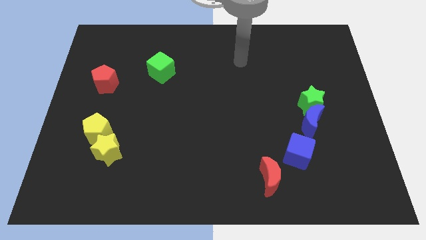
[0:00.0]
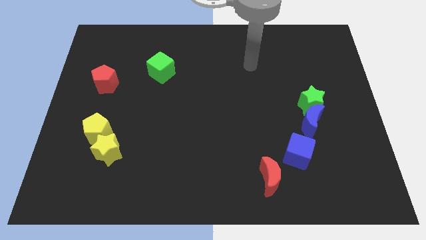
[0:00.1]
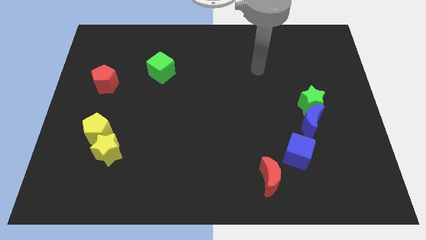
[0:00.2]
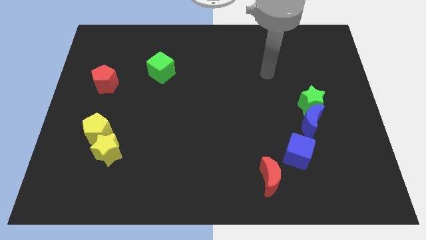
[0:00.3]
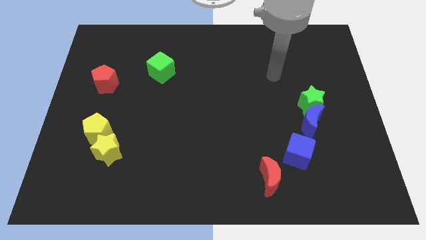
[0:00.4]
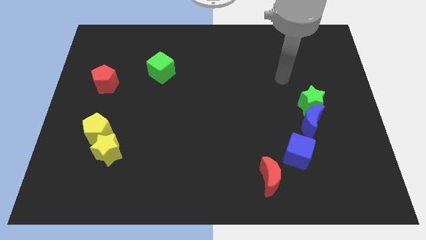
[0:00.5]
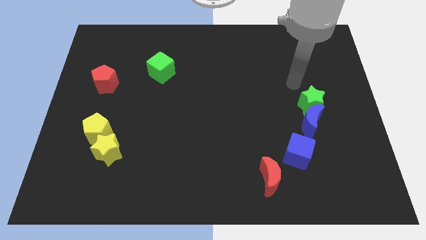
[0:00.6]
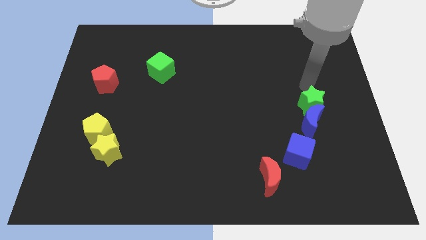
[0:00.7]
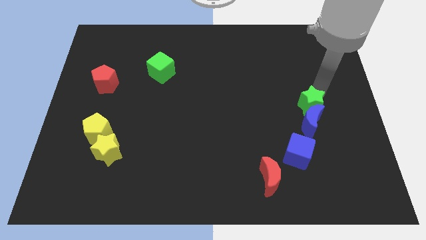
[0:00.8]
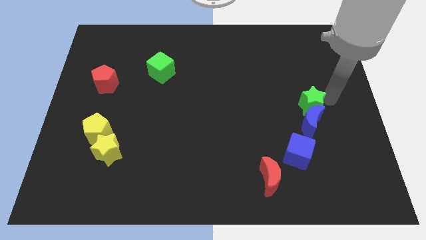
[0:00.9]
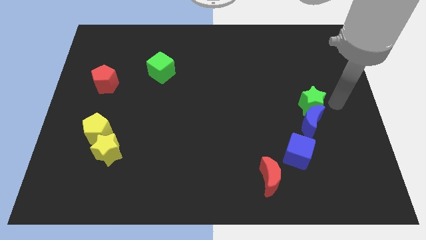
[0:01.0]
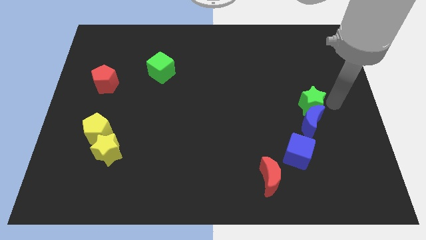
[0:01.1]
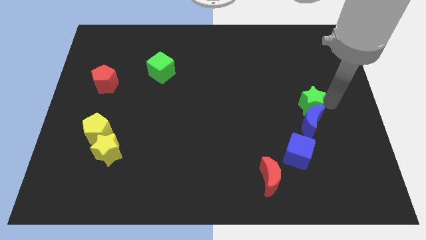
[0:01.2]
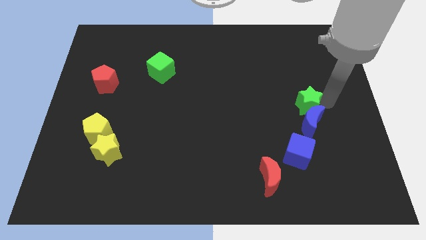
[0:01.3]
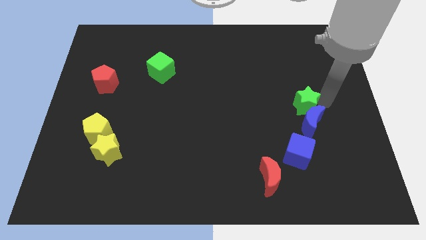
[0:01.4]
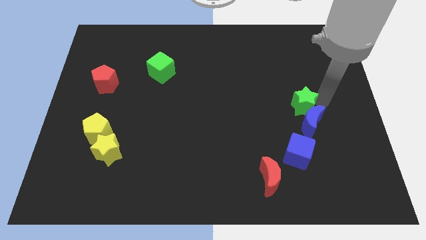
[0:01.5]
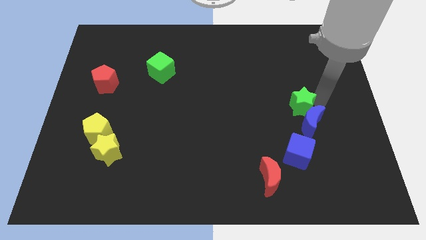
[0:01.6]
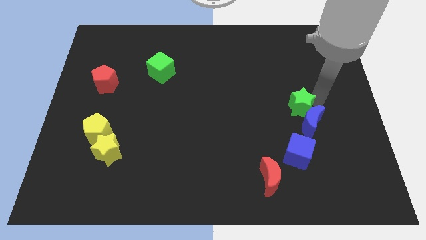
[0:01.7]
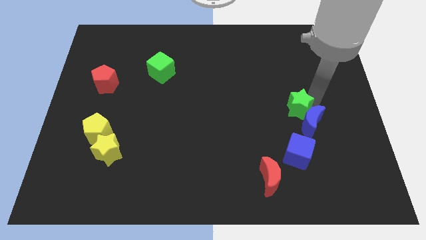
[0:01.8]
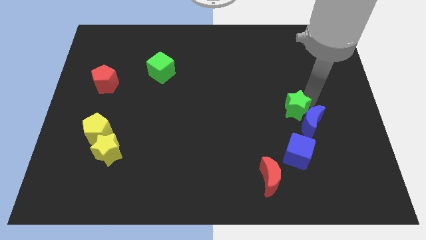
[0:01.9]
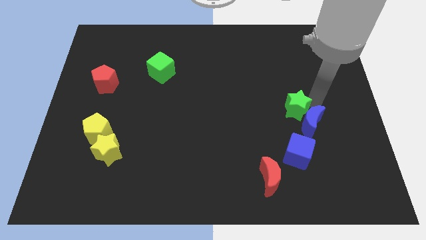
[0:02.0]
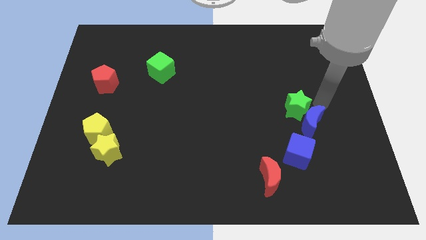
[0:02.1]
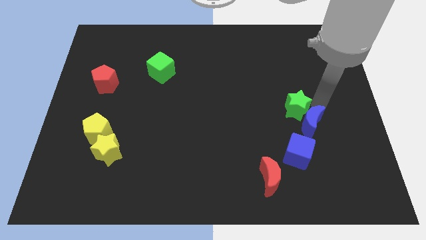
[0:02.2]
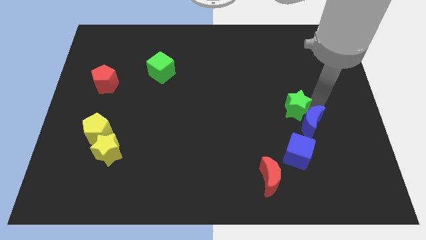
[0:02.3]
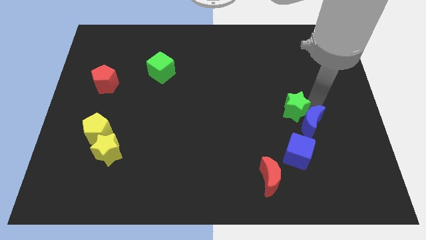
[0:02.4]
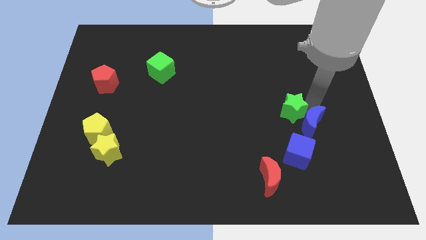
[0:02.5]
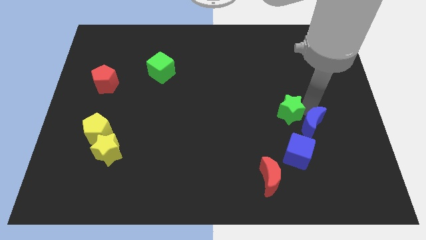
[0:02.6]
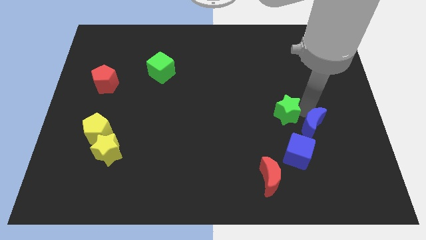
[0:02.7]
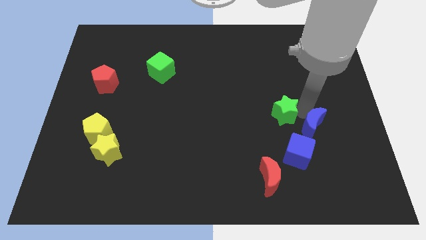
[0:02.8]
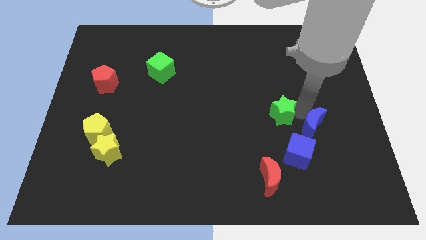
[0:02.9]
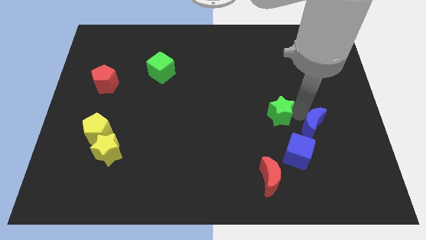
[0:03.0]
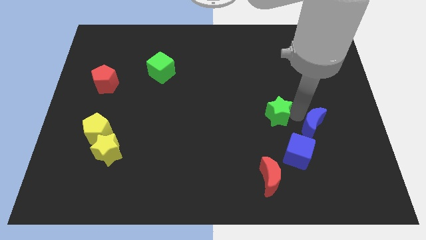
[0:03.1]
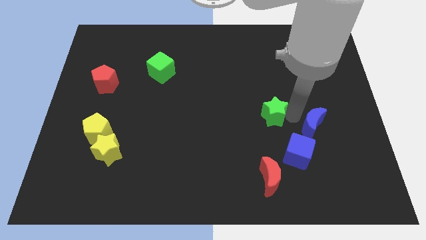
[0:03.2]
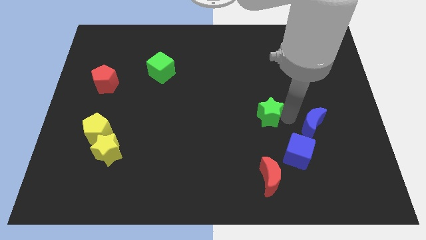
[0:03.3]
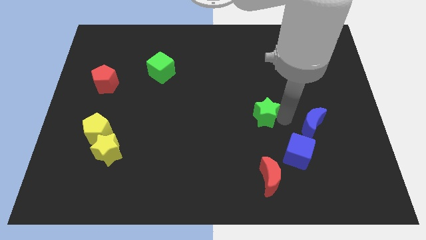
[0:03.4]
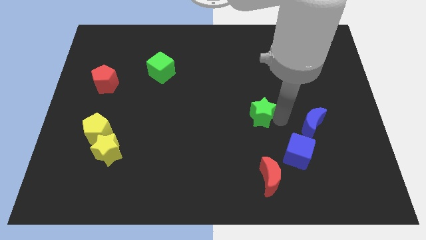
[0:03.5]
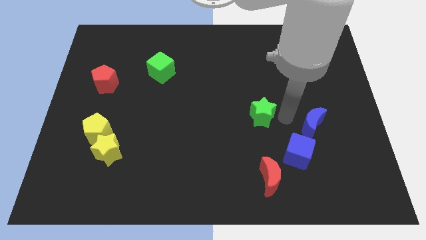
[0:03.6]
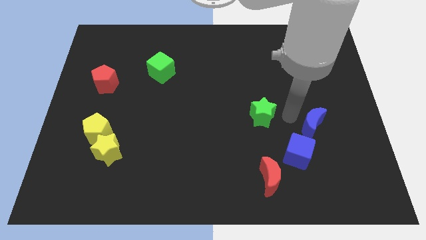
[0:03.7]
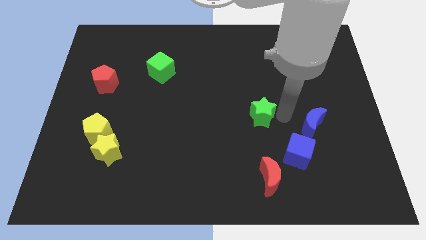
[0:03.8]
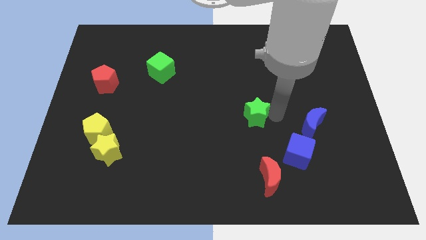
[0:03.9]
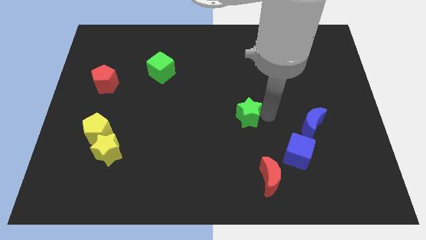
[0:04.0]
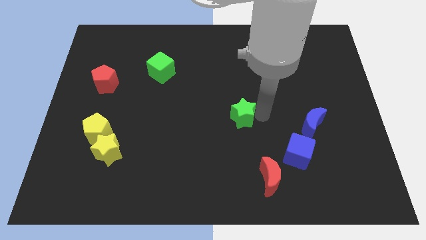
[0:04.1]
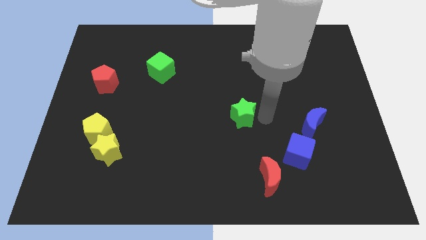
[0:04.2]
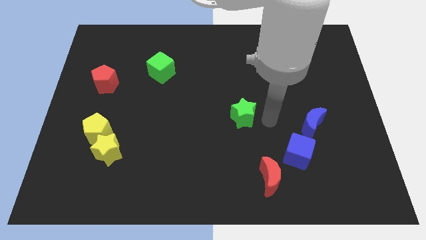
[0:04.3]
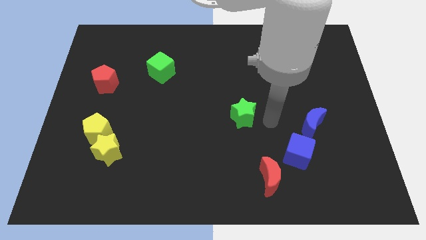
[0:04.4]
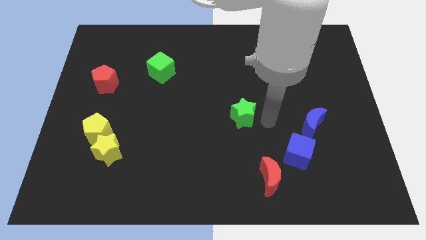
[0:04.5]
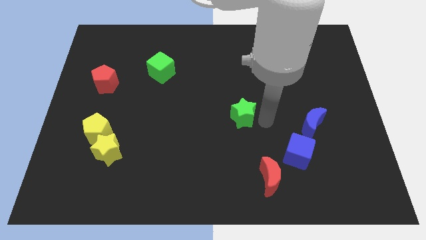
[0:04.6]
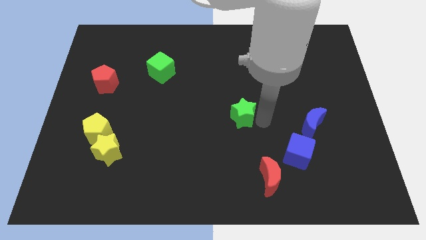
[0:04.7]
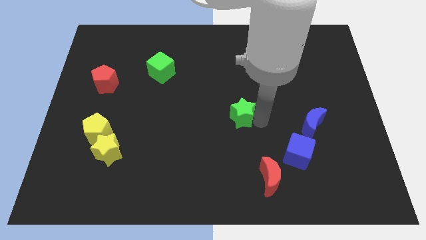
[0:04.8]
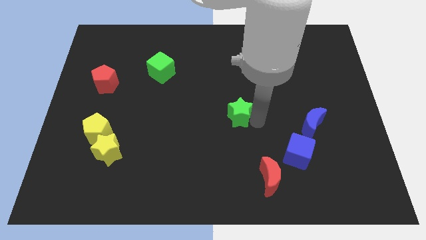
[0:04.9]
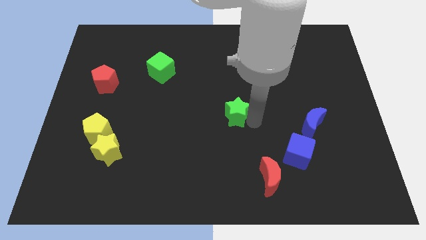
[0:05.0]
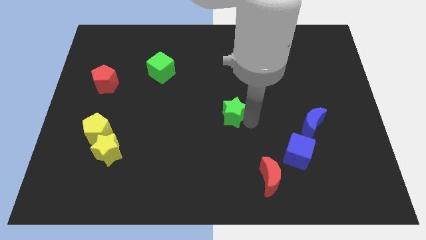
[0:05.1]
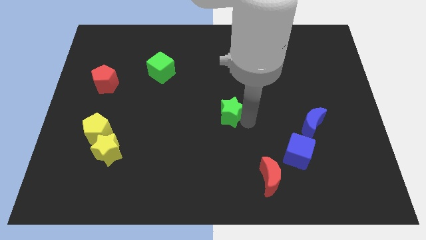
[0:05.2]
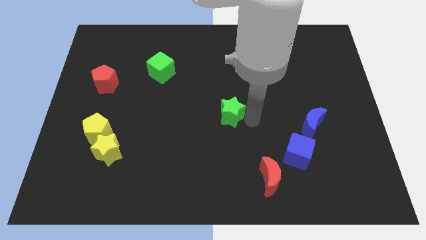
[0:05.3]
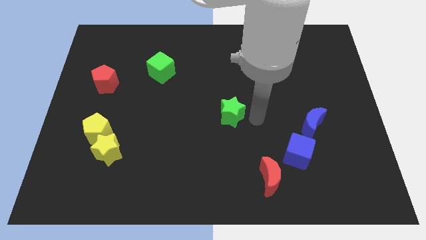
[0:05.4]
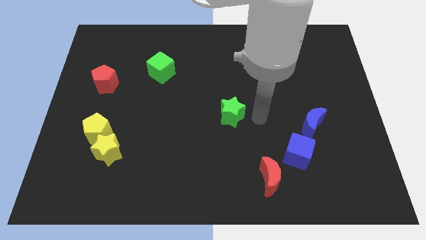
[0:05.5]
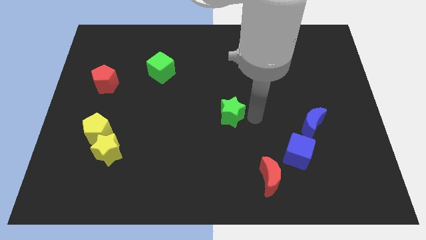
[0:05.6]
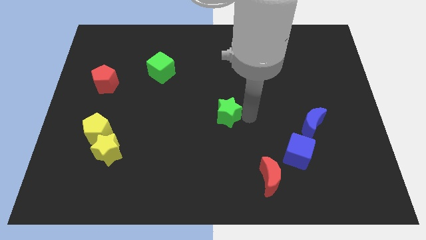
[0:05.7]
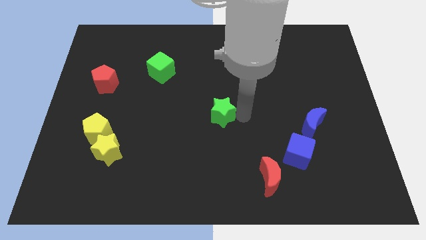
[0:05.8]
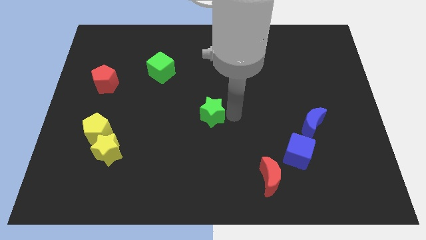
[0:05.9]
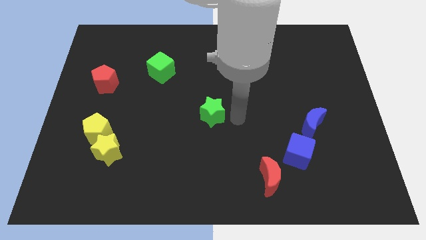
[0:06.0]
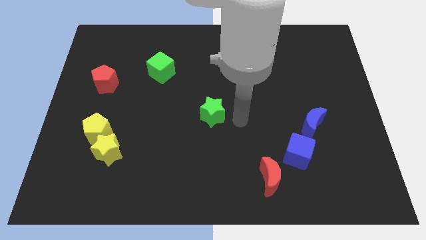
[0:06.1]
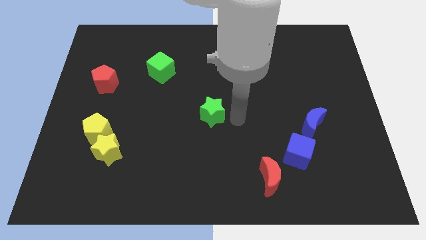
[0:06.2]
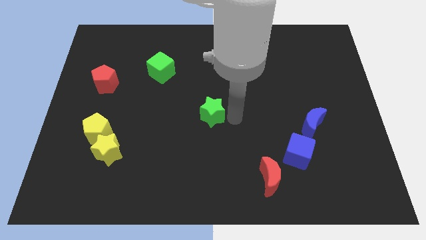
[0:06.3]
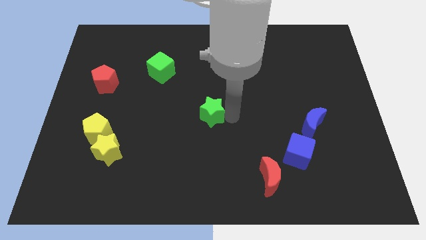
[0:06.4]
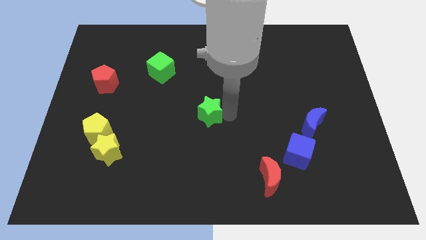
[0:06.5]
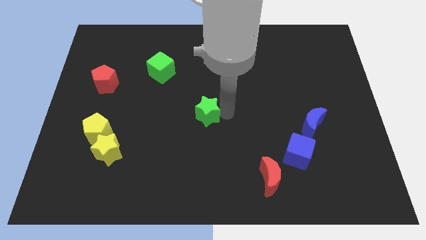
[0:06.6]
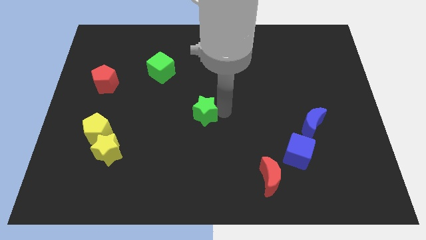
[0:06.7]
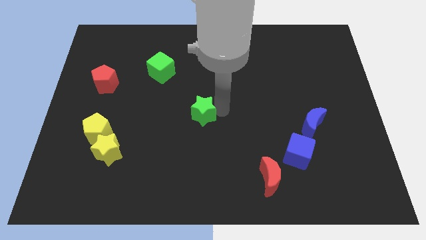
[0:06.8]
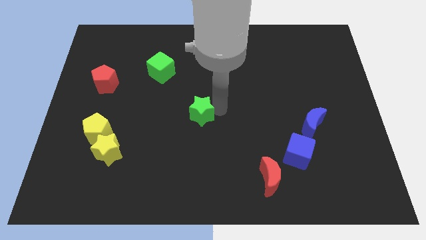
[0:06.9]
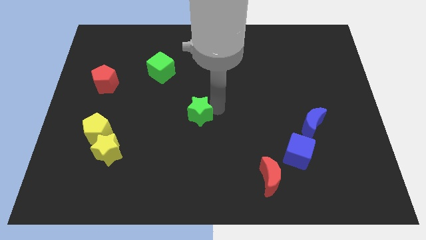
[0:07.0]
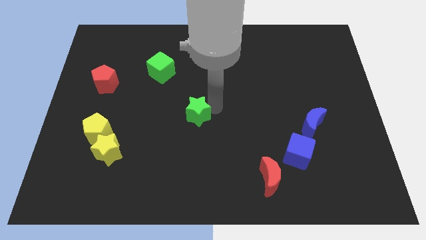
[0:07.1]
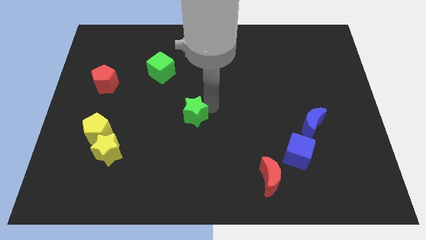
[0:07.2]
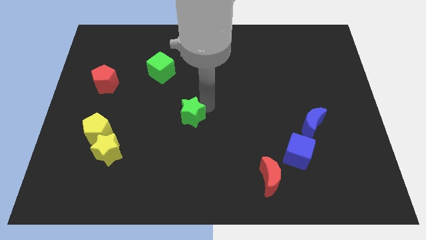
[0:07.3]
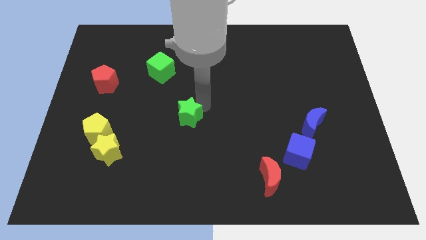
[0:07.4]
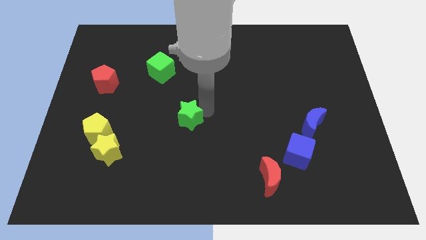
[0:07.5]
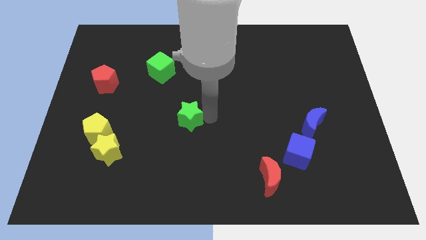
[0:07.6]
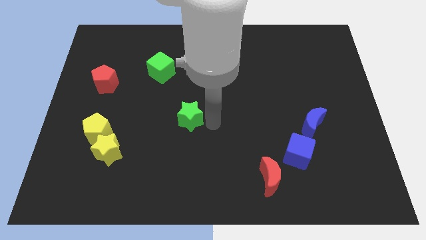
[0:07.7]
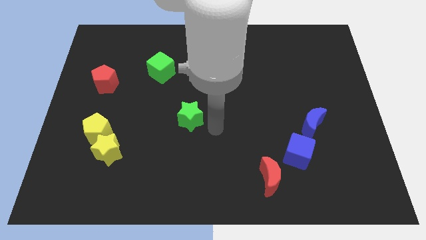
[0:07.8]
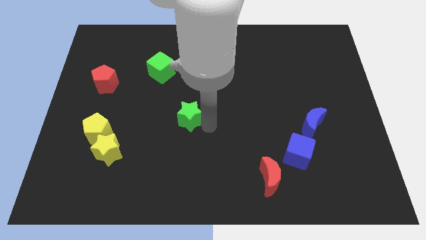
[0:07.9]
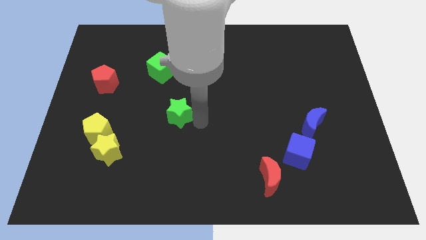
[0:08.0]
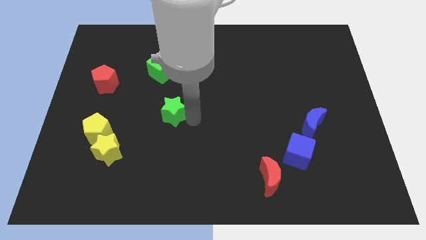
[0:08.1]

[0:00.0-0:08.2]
move the green star to the bottom side of the green cube
